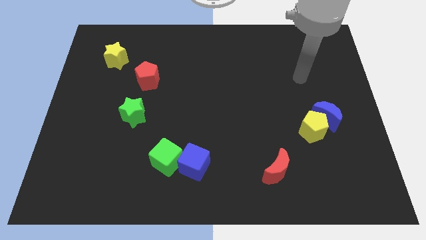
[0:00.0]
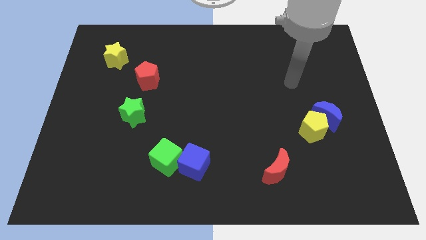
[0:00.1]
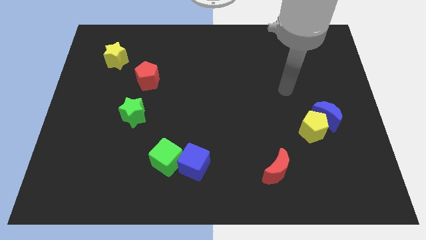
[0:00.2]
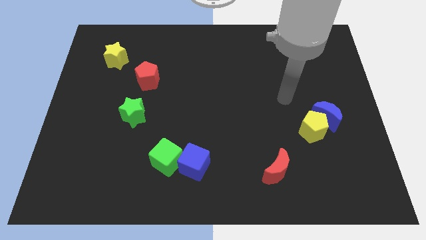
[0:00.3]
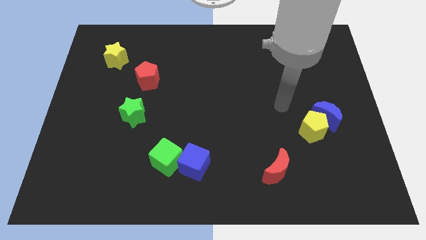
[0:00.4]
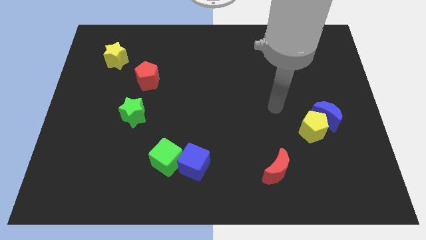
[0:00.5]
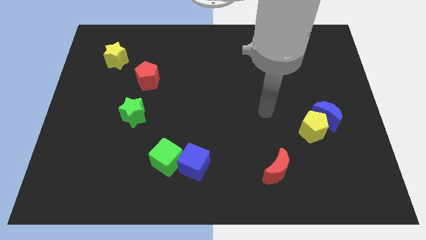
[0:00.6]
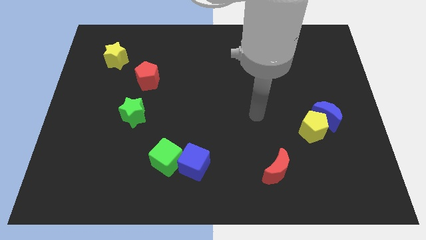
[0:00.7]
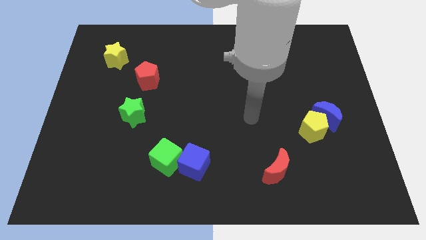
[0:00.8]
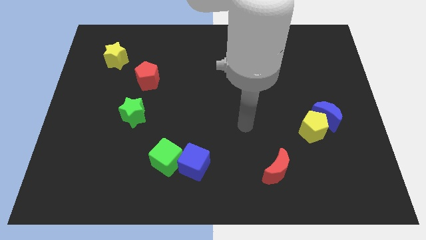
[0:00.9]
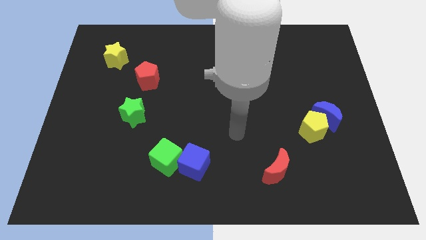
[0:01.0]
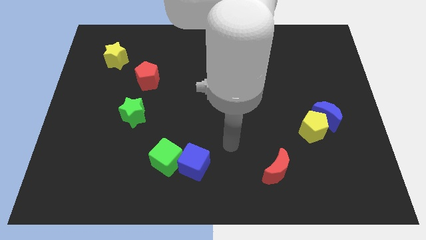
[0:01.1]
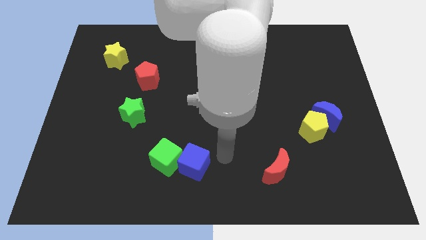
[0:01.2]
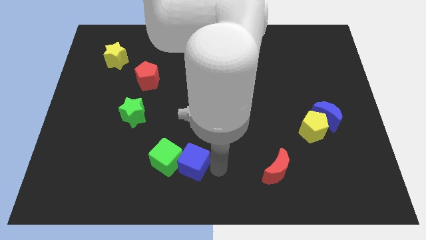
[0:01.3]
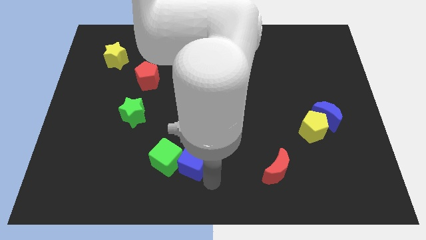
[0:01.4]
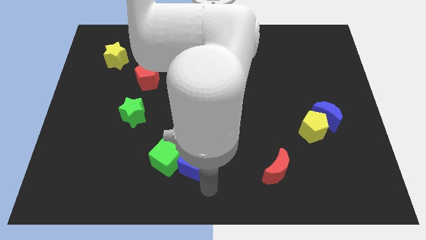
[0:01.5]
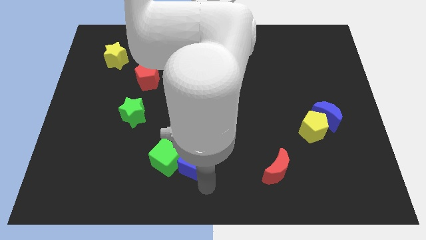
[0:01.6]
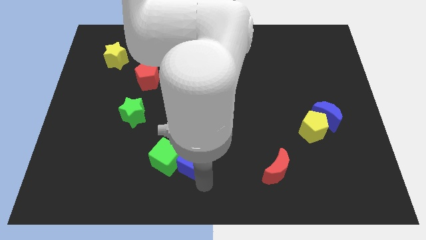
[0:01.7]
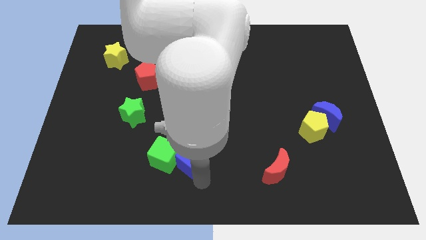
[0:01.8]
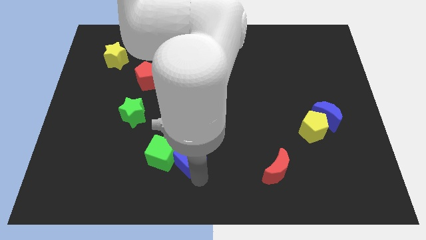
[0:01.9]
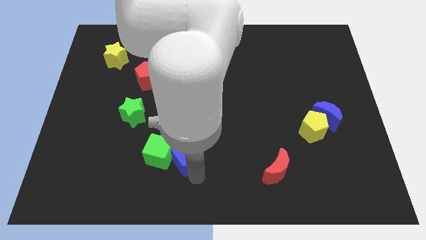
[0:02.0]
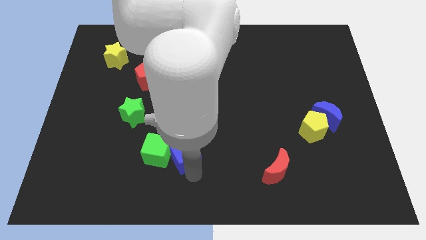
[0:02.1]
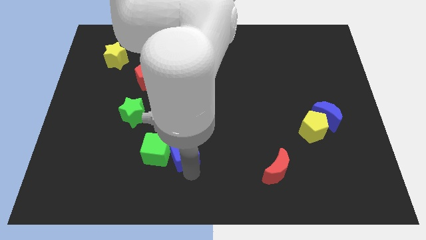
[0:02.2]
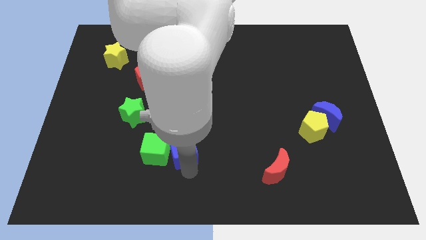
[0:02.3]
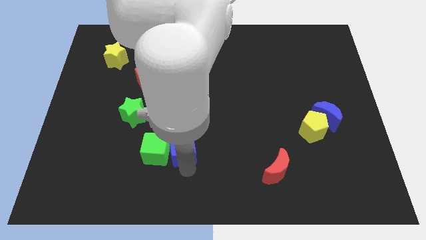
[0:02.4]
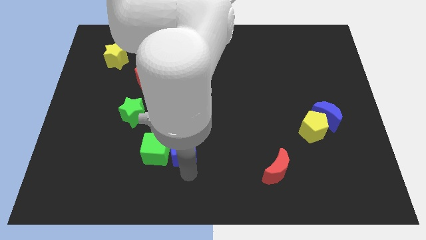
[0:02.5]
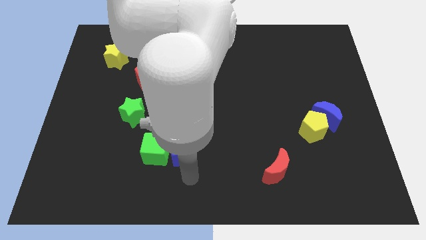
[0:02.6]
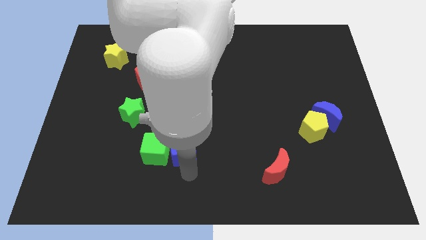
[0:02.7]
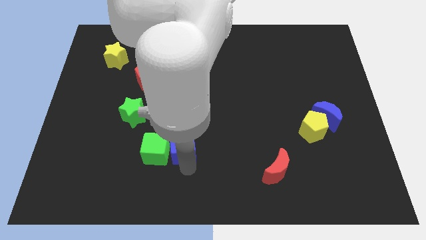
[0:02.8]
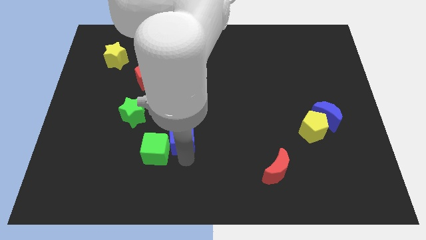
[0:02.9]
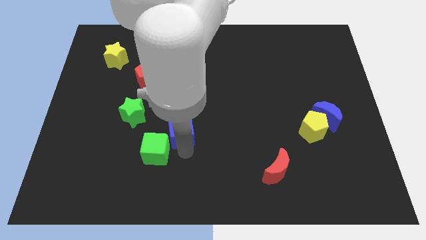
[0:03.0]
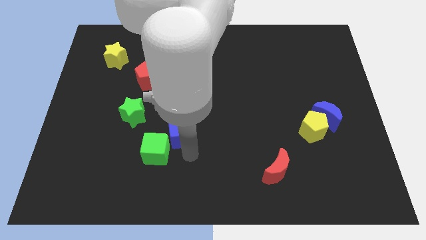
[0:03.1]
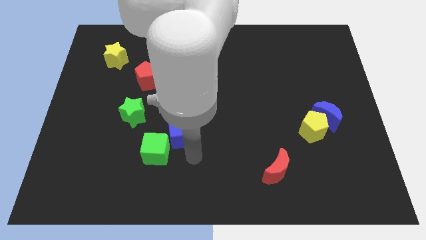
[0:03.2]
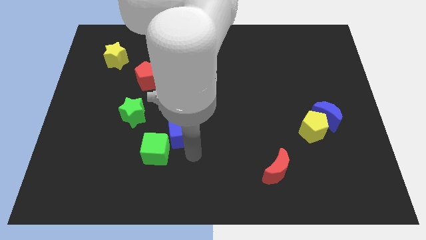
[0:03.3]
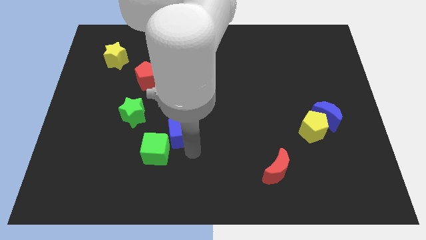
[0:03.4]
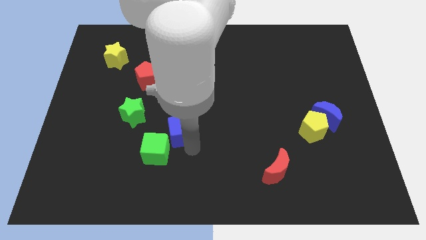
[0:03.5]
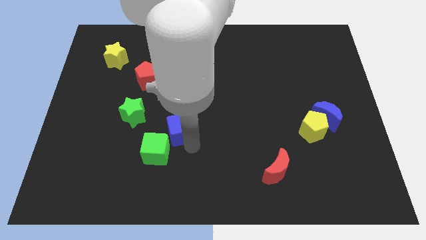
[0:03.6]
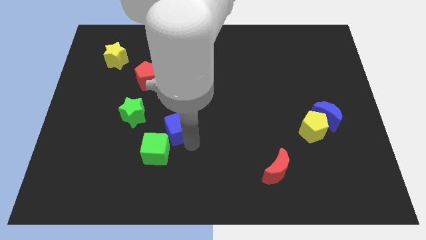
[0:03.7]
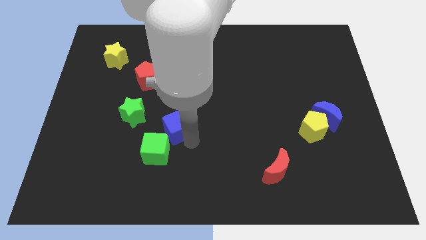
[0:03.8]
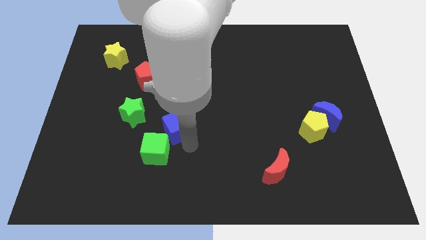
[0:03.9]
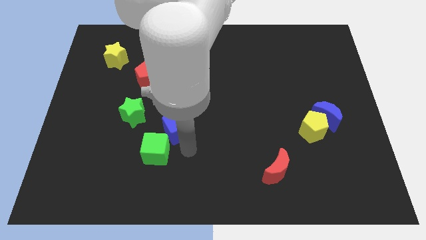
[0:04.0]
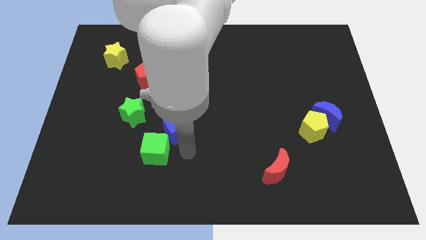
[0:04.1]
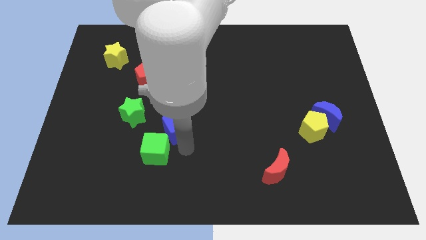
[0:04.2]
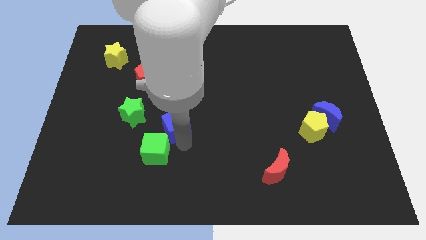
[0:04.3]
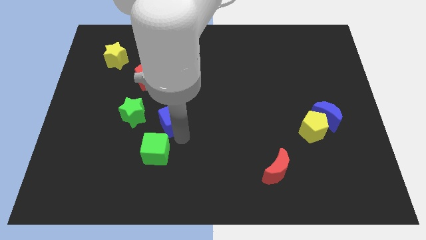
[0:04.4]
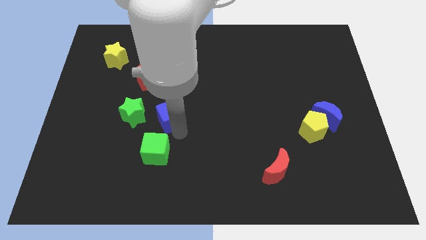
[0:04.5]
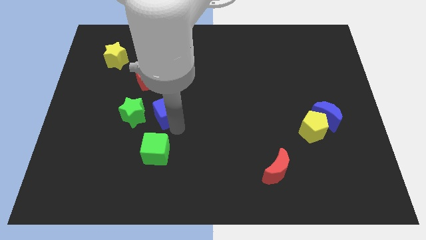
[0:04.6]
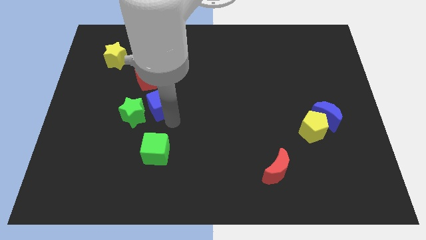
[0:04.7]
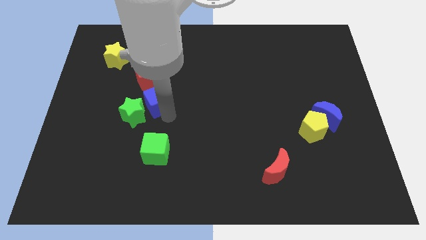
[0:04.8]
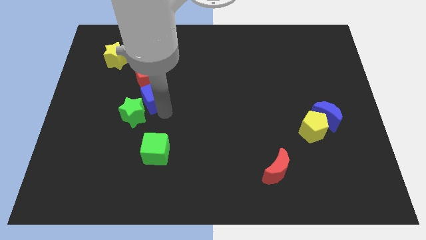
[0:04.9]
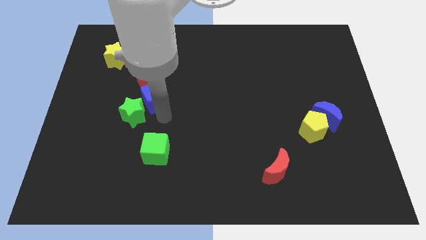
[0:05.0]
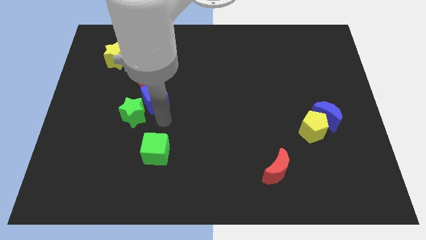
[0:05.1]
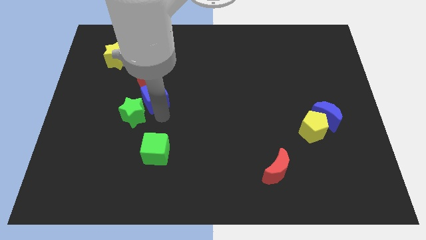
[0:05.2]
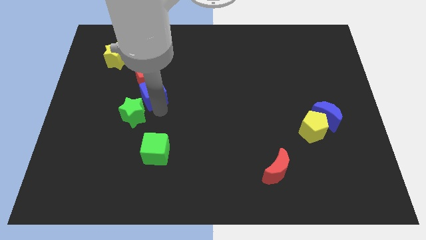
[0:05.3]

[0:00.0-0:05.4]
slide the blue cube to the red pentagon

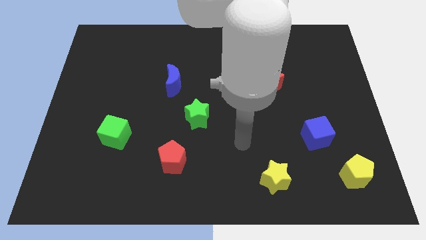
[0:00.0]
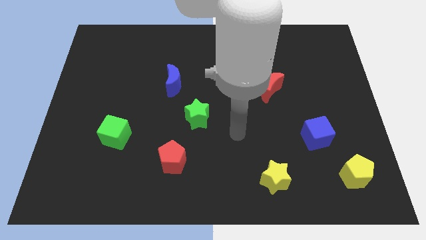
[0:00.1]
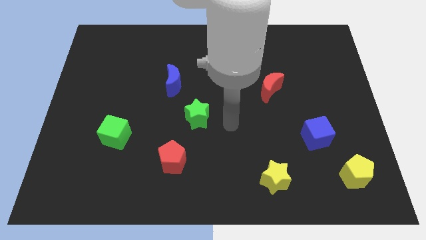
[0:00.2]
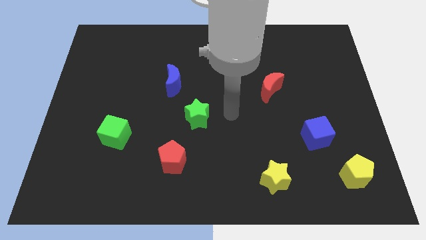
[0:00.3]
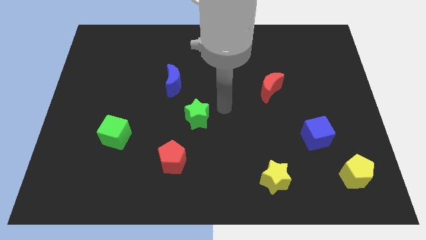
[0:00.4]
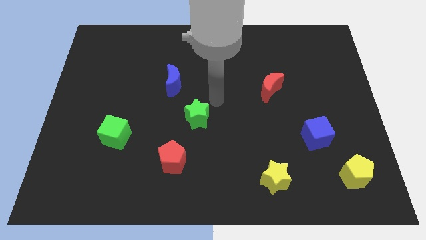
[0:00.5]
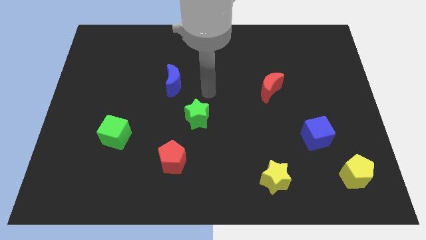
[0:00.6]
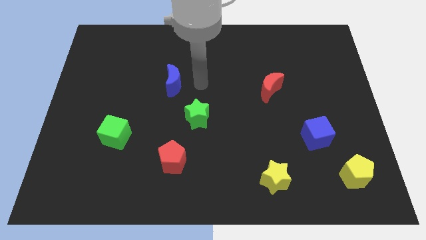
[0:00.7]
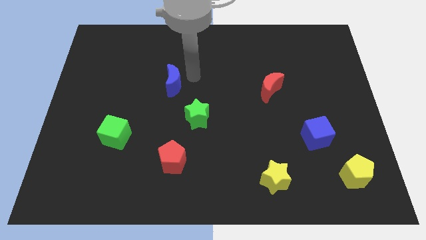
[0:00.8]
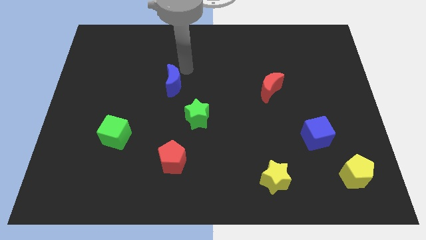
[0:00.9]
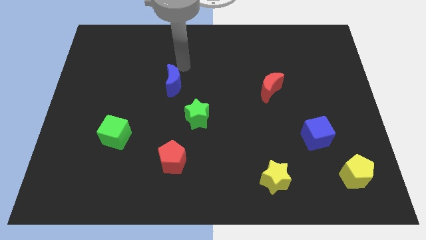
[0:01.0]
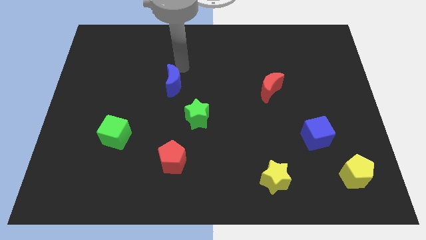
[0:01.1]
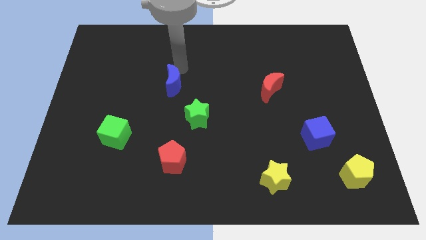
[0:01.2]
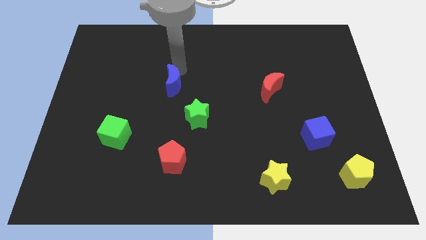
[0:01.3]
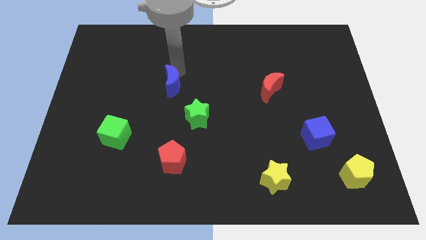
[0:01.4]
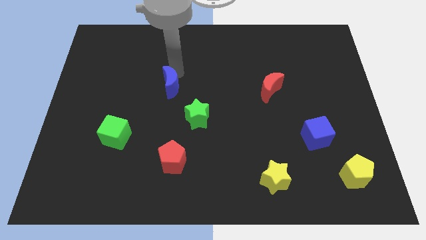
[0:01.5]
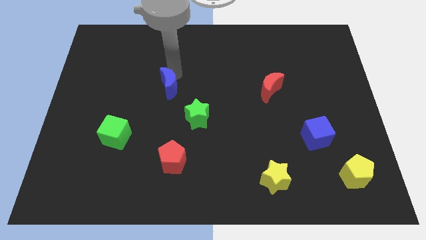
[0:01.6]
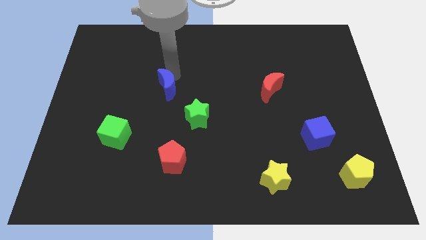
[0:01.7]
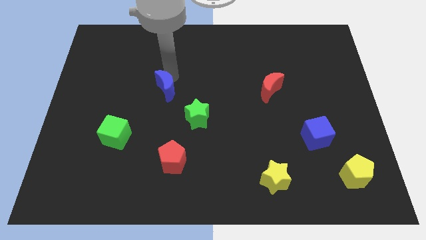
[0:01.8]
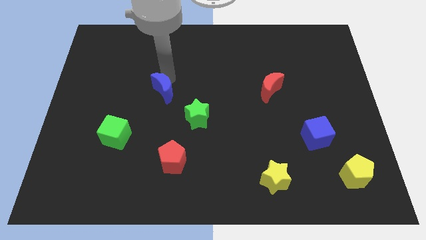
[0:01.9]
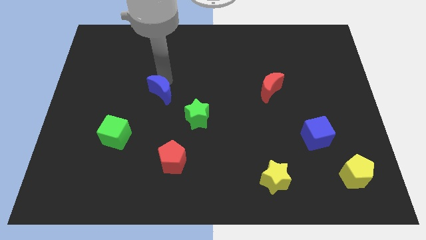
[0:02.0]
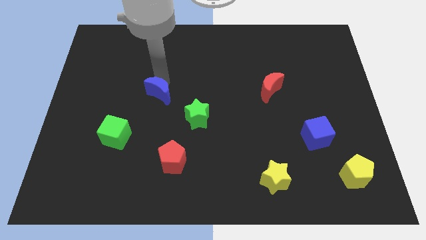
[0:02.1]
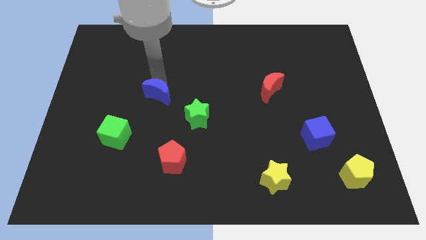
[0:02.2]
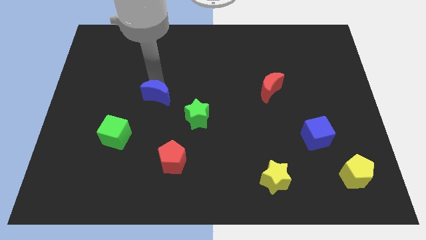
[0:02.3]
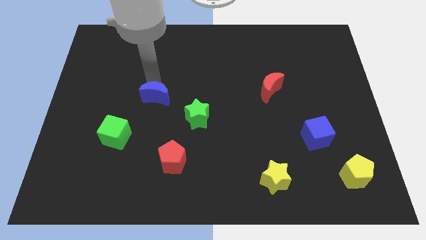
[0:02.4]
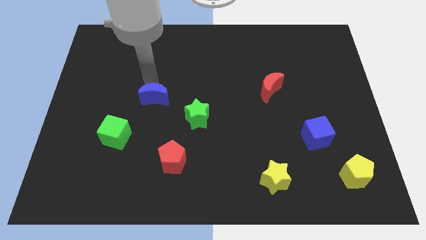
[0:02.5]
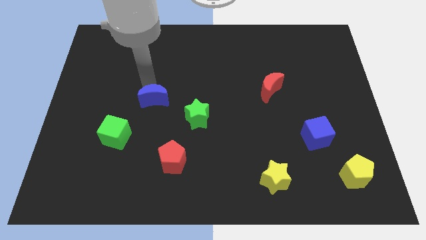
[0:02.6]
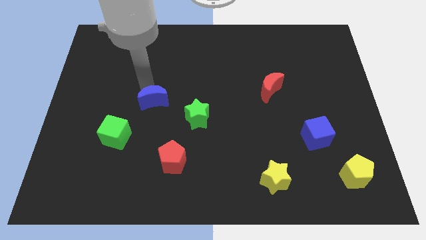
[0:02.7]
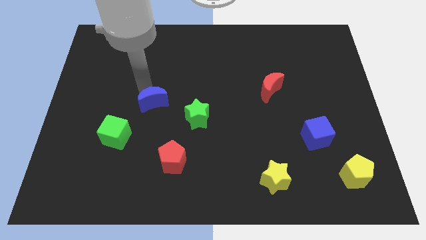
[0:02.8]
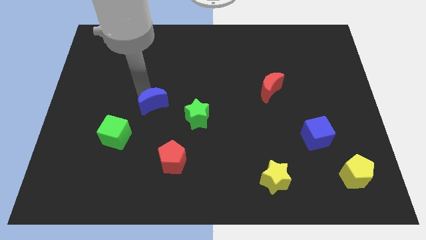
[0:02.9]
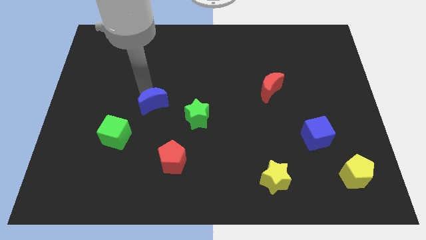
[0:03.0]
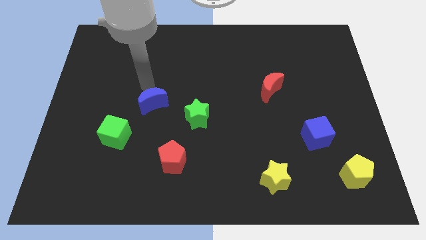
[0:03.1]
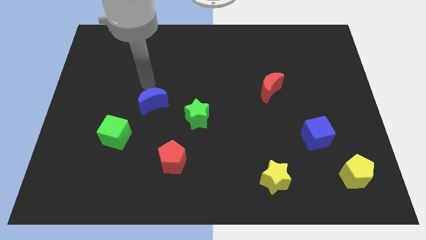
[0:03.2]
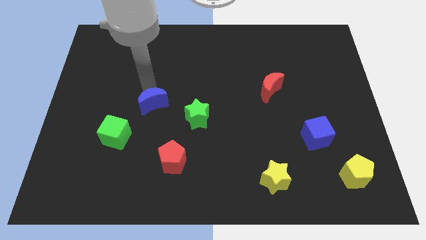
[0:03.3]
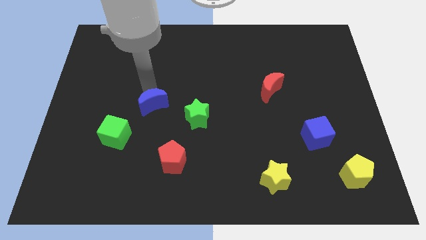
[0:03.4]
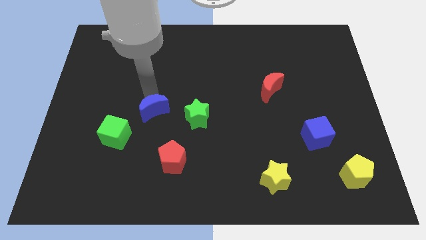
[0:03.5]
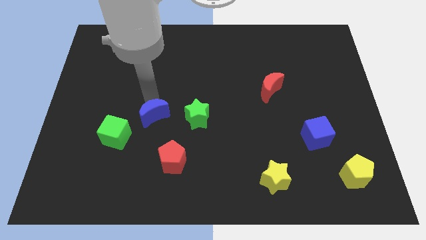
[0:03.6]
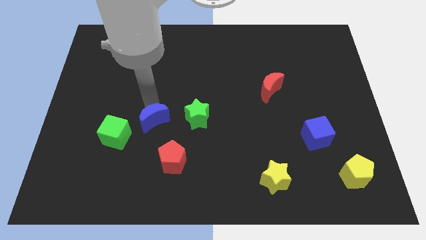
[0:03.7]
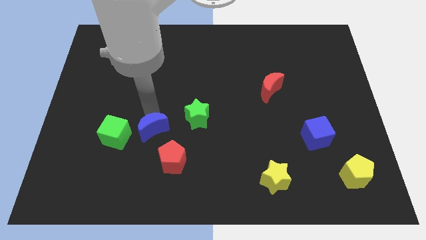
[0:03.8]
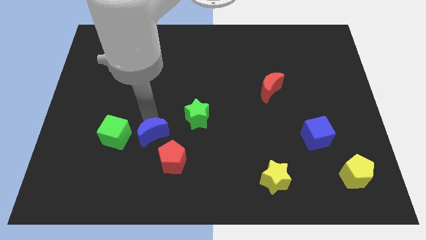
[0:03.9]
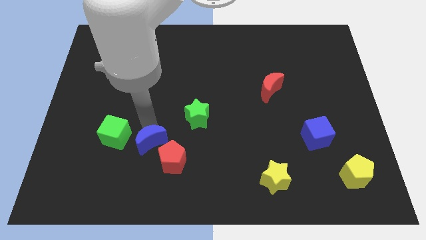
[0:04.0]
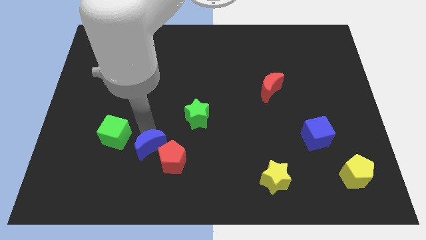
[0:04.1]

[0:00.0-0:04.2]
push the blue moon next to the red pentagon
